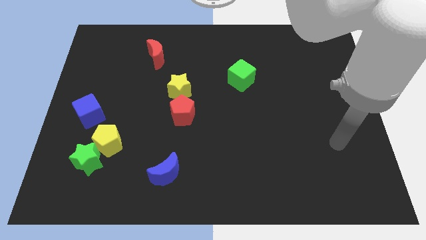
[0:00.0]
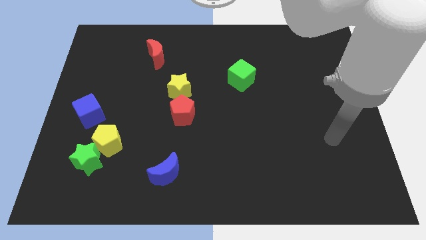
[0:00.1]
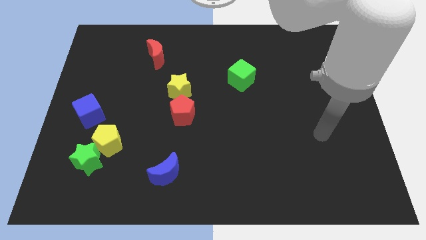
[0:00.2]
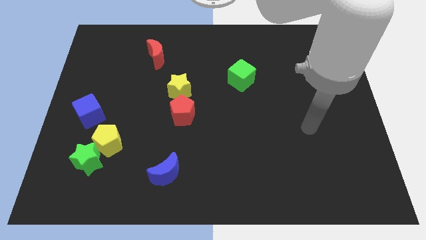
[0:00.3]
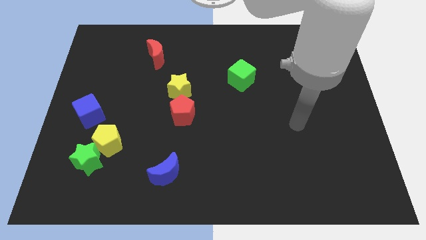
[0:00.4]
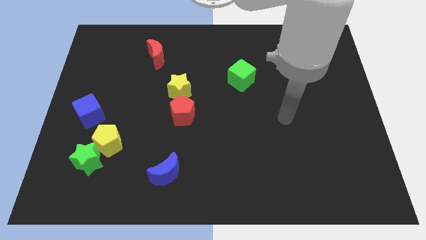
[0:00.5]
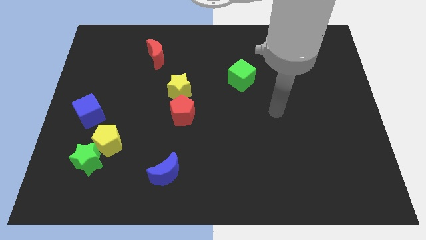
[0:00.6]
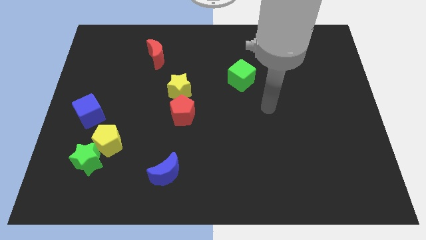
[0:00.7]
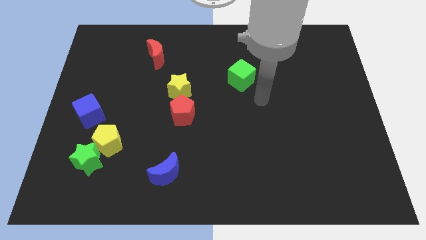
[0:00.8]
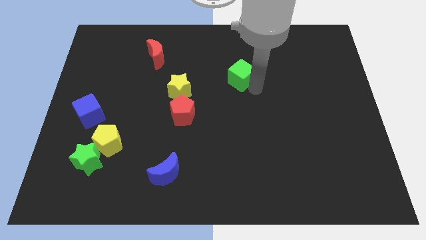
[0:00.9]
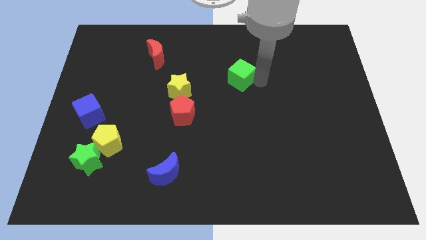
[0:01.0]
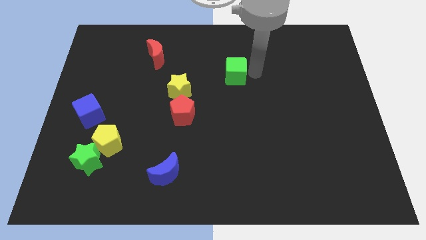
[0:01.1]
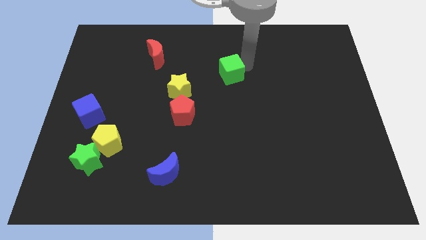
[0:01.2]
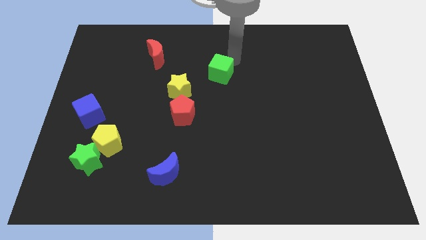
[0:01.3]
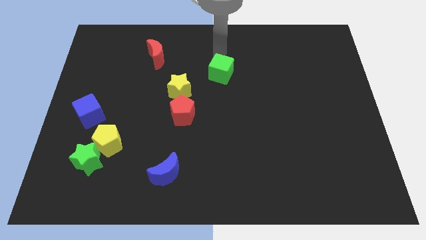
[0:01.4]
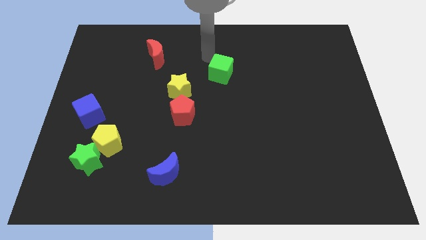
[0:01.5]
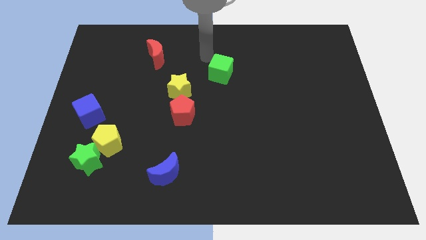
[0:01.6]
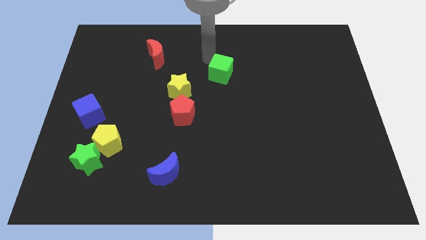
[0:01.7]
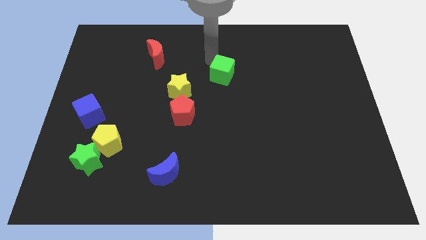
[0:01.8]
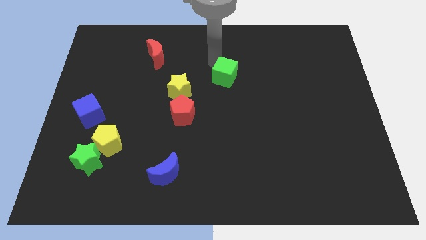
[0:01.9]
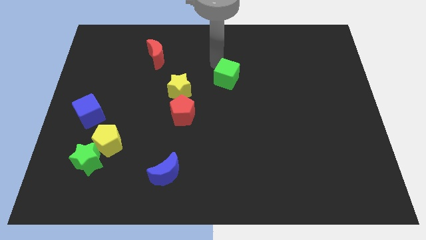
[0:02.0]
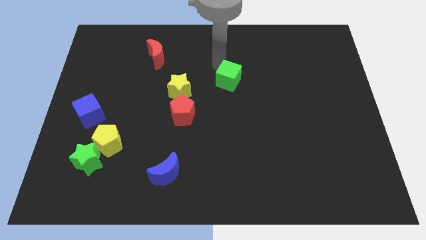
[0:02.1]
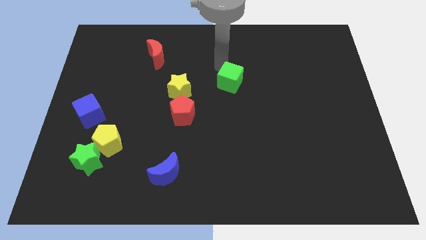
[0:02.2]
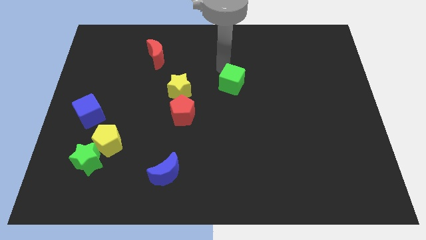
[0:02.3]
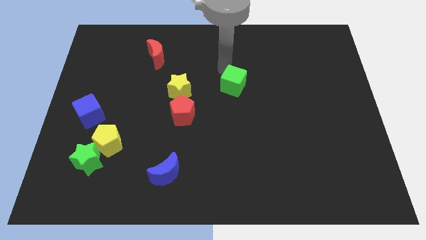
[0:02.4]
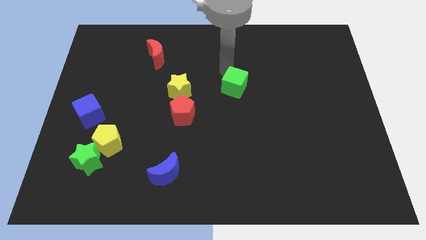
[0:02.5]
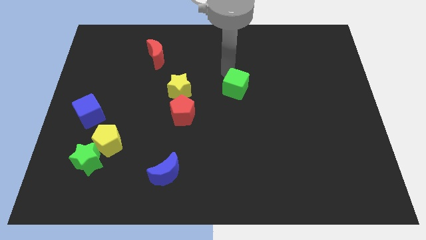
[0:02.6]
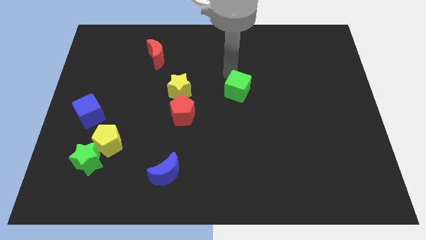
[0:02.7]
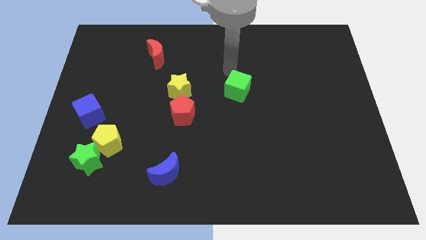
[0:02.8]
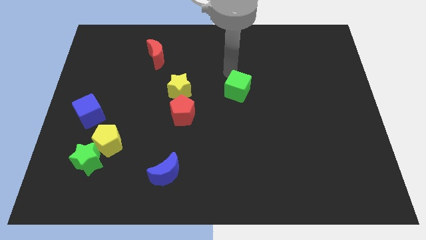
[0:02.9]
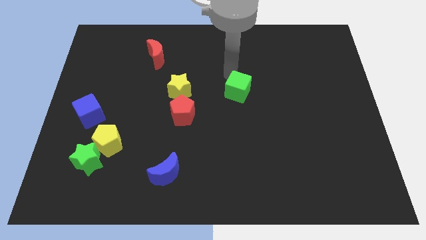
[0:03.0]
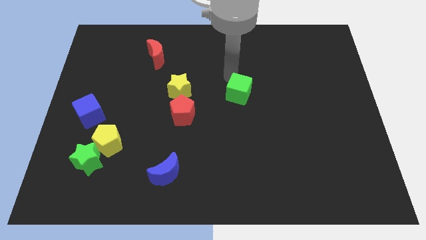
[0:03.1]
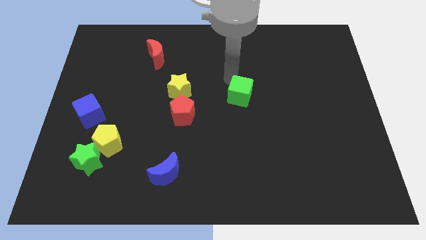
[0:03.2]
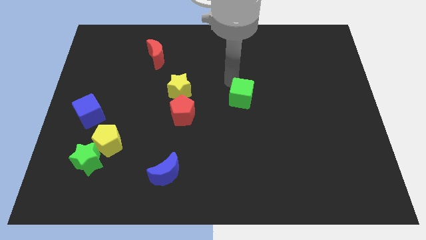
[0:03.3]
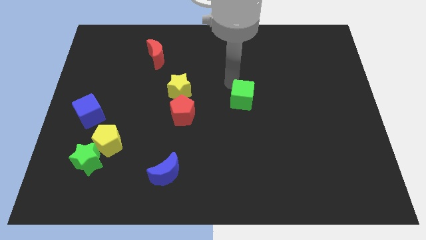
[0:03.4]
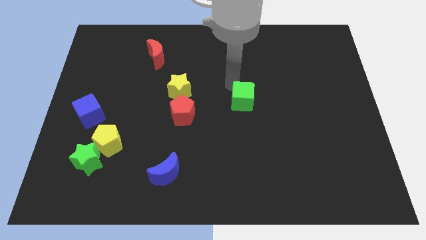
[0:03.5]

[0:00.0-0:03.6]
move the green cube slightly down

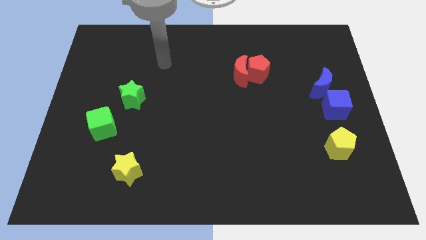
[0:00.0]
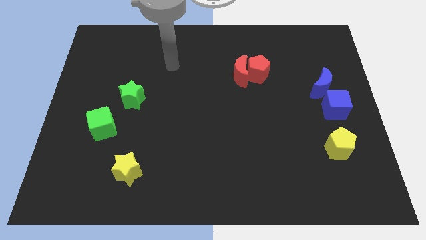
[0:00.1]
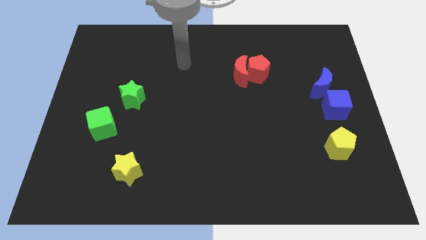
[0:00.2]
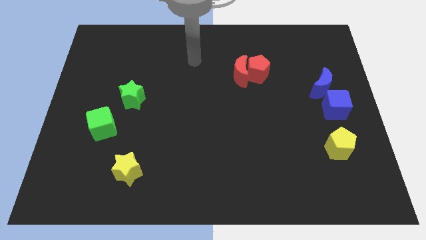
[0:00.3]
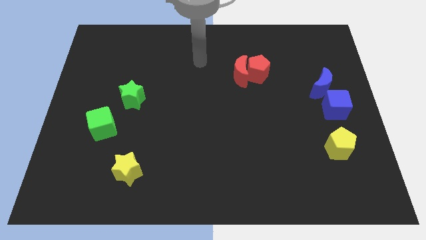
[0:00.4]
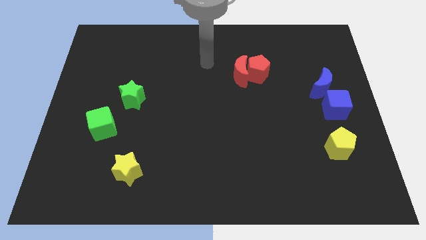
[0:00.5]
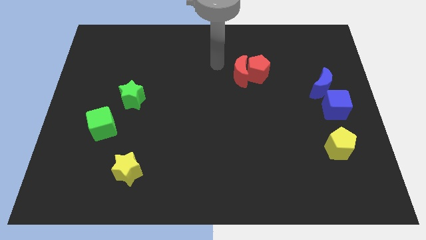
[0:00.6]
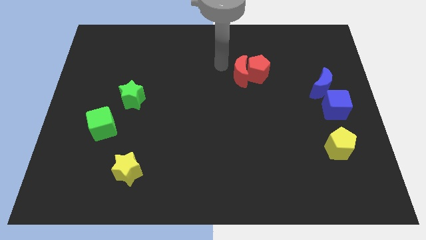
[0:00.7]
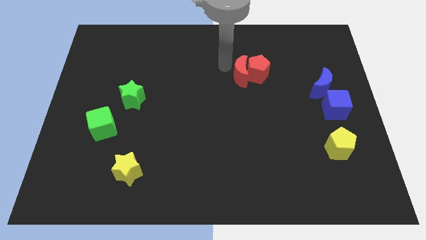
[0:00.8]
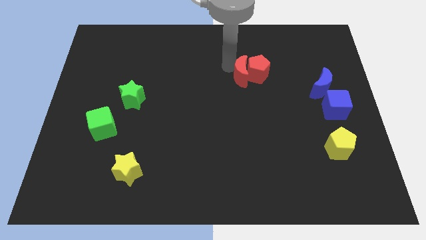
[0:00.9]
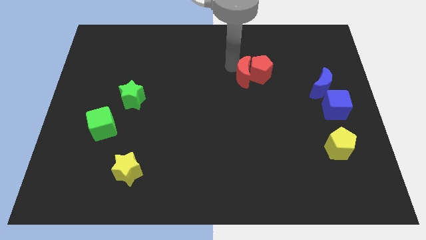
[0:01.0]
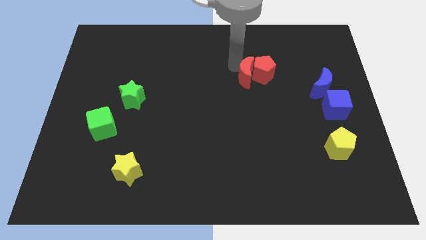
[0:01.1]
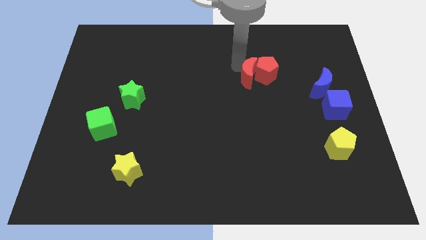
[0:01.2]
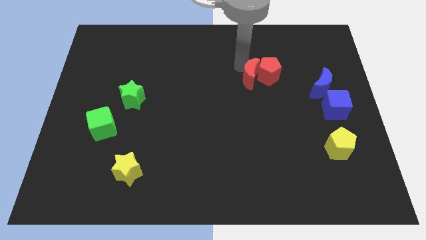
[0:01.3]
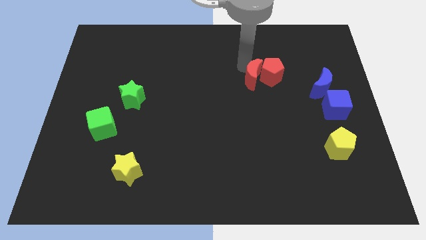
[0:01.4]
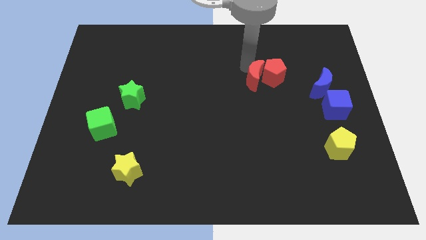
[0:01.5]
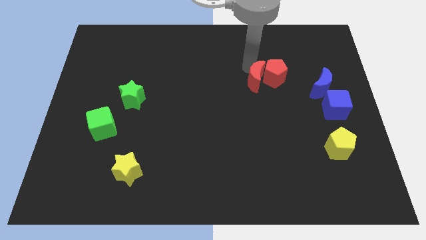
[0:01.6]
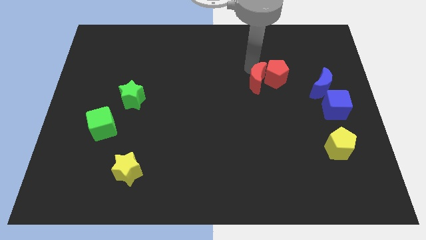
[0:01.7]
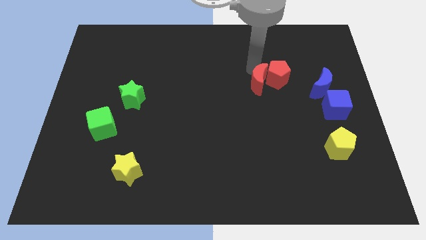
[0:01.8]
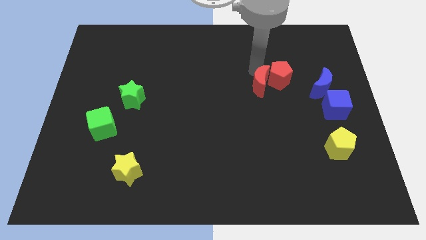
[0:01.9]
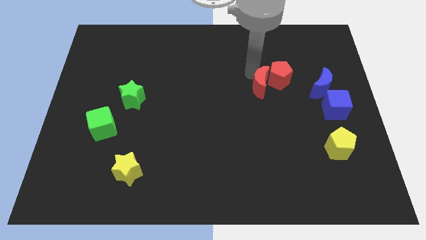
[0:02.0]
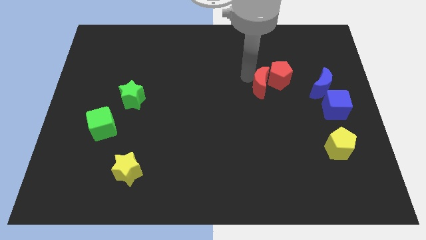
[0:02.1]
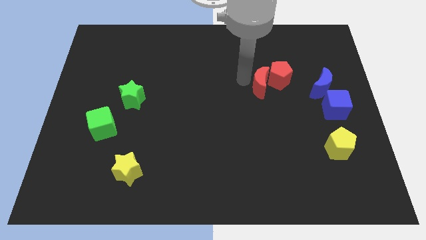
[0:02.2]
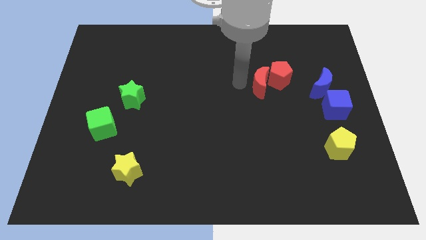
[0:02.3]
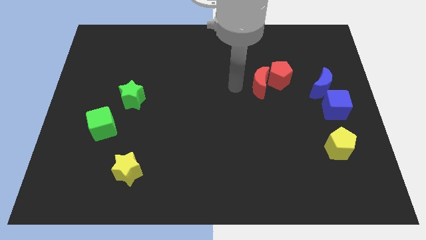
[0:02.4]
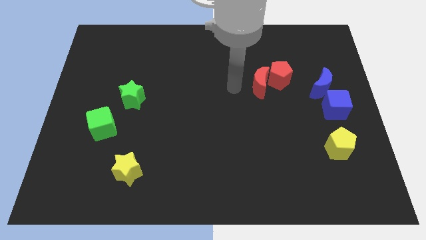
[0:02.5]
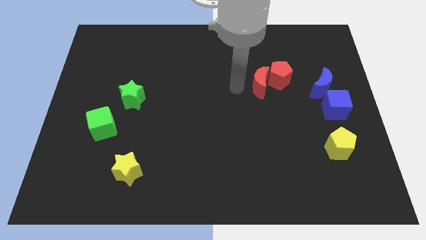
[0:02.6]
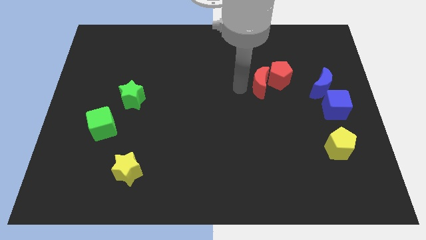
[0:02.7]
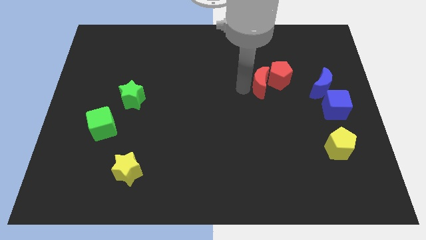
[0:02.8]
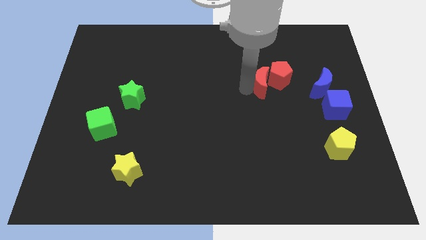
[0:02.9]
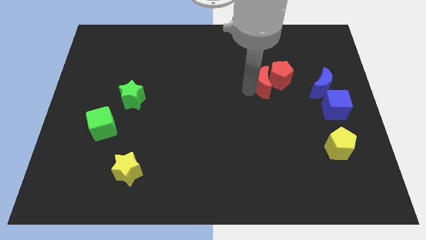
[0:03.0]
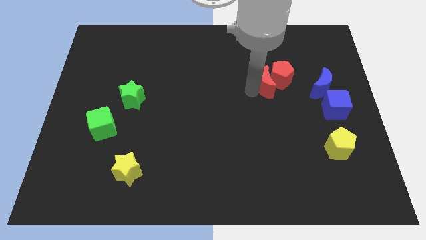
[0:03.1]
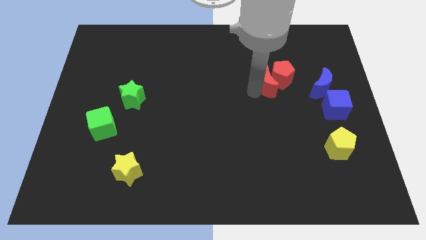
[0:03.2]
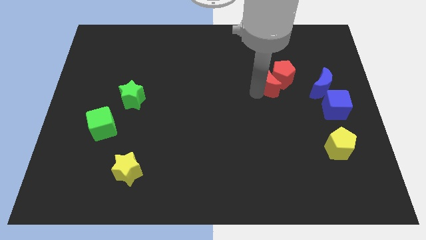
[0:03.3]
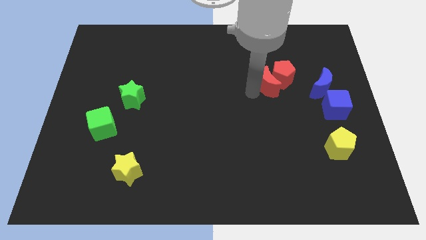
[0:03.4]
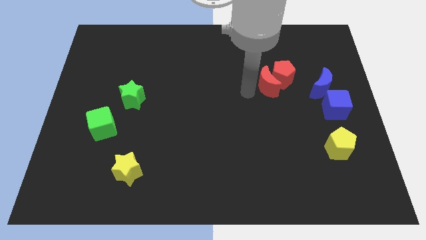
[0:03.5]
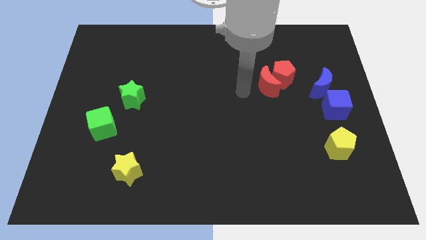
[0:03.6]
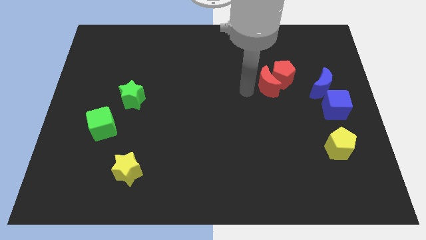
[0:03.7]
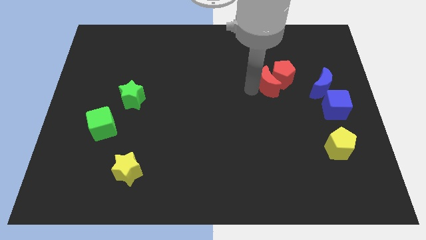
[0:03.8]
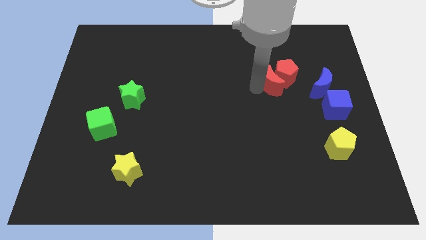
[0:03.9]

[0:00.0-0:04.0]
move the red moon to the right slightly
